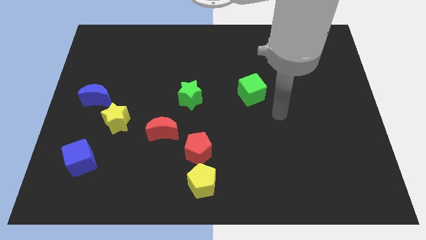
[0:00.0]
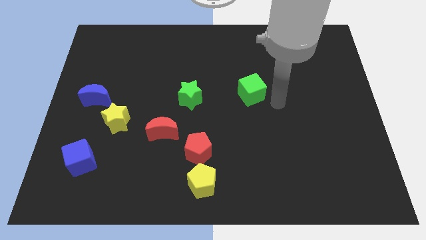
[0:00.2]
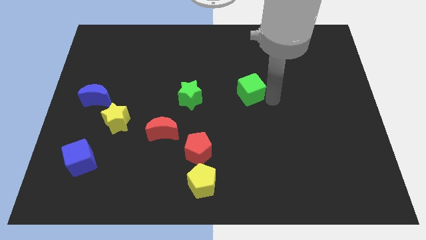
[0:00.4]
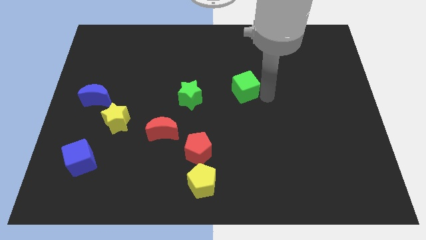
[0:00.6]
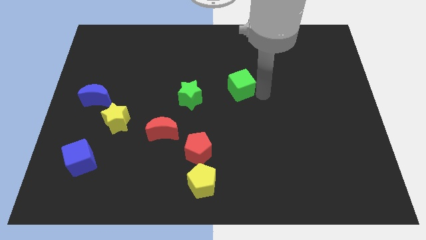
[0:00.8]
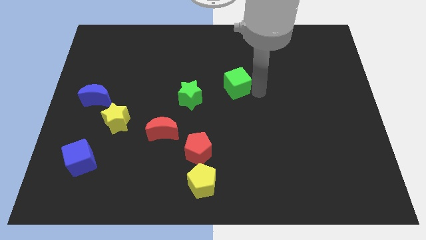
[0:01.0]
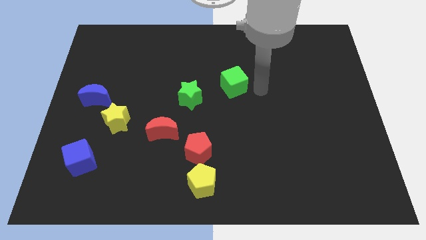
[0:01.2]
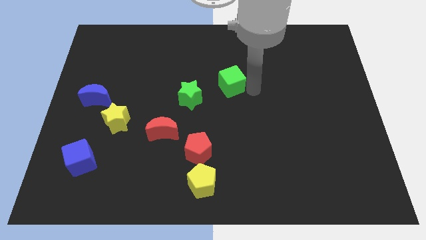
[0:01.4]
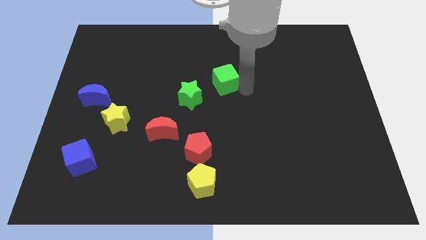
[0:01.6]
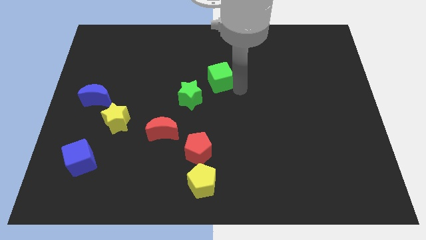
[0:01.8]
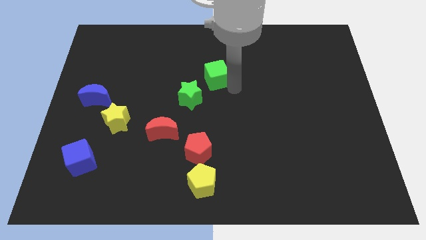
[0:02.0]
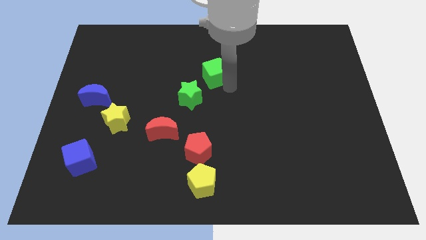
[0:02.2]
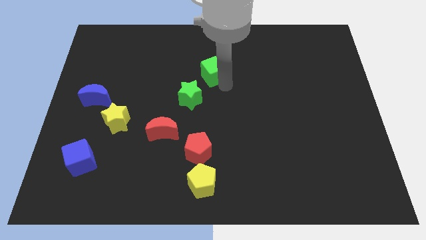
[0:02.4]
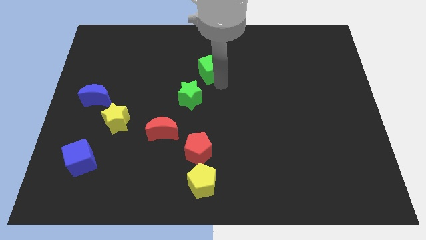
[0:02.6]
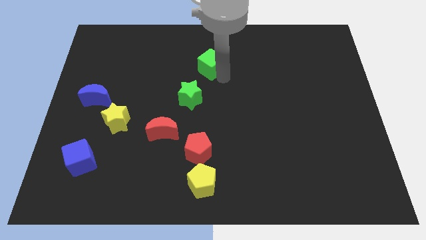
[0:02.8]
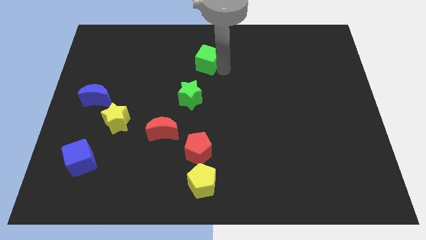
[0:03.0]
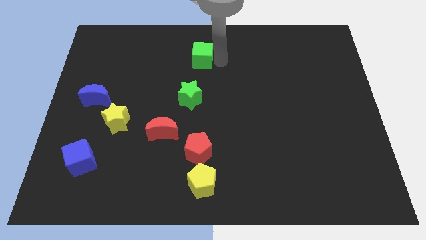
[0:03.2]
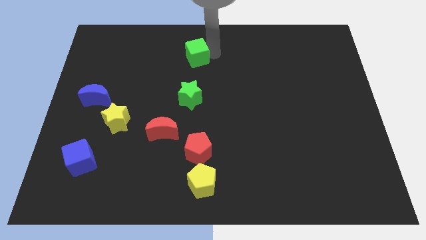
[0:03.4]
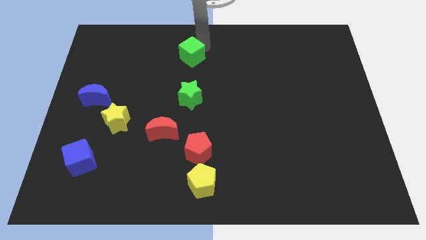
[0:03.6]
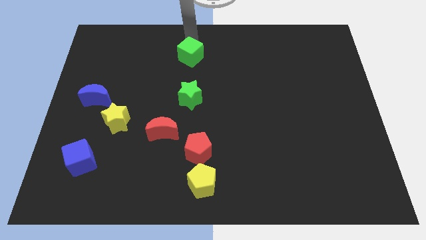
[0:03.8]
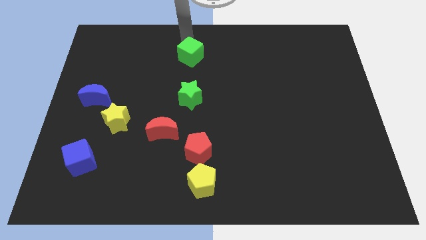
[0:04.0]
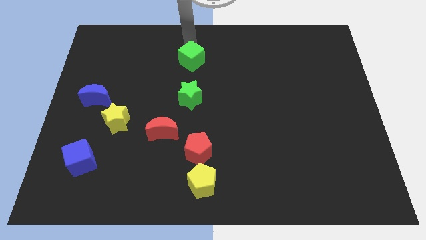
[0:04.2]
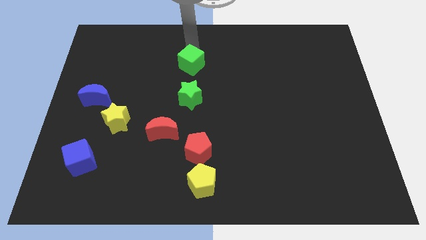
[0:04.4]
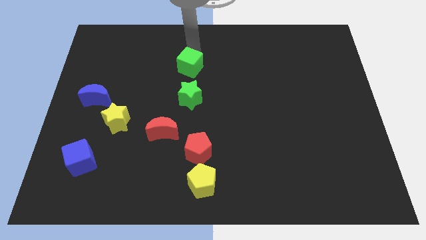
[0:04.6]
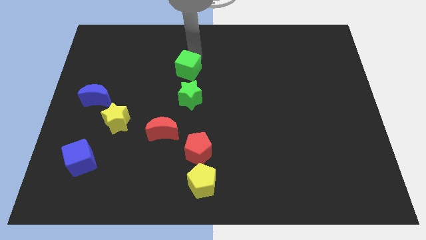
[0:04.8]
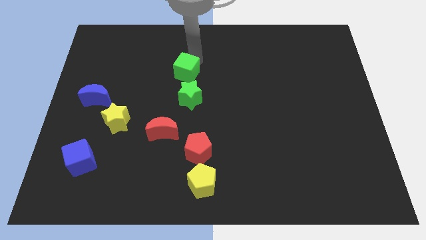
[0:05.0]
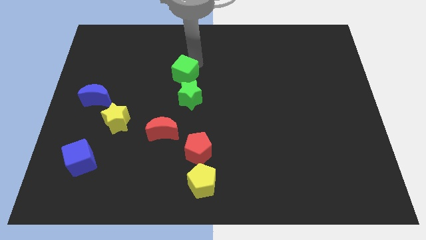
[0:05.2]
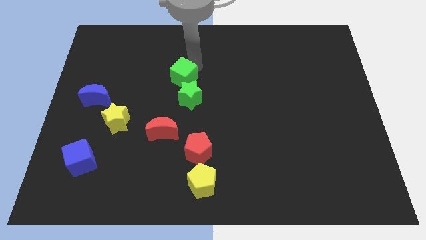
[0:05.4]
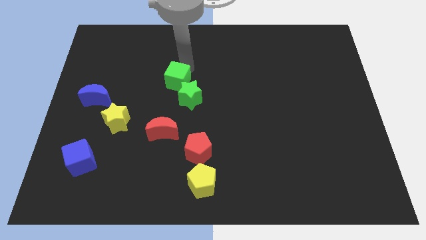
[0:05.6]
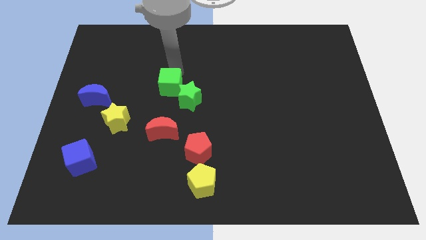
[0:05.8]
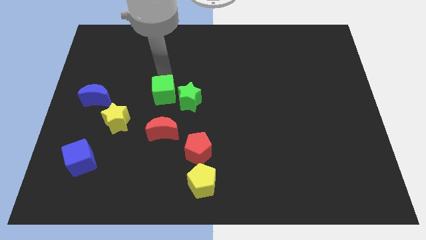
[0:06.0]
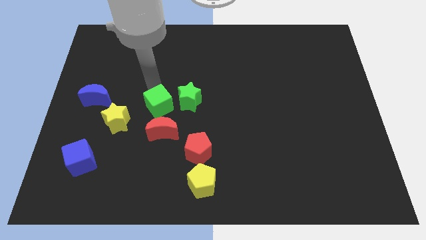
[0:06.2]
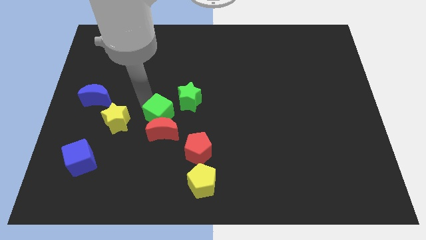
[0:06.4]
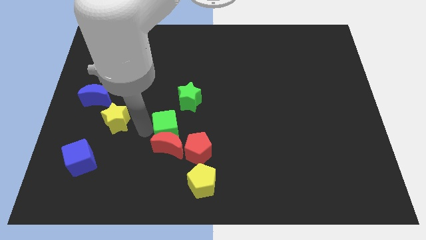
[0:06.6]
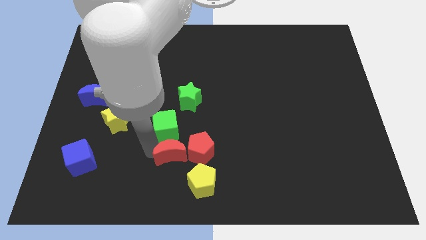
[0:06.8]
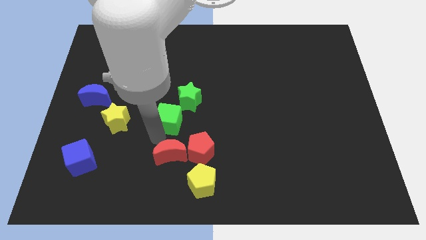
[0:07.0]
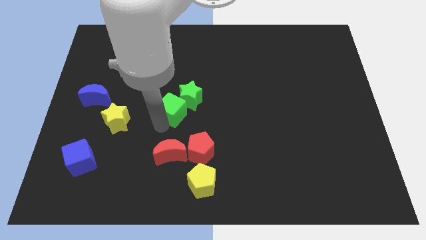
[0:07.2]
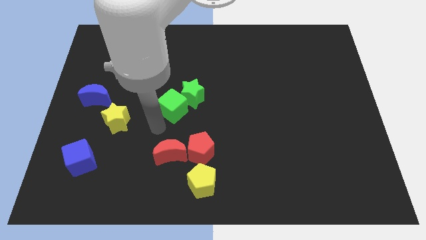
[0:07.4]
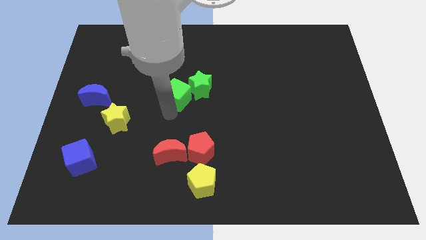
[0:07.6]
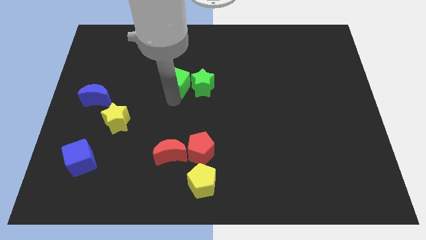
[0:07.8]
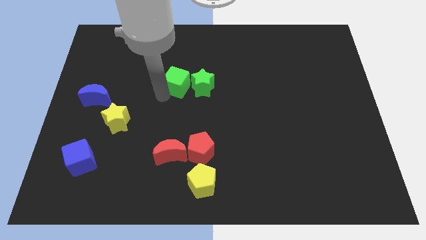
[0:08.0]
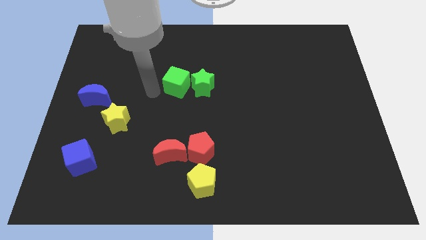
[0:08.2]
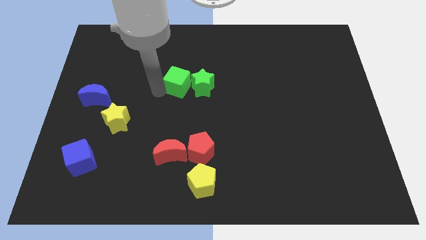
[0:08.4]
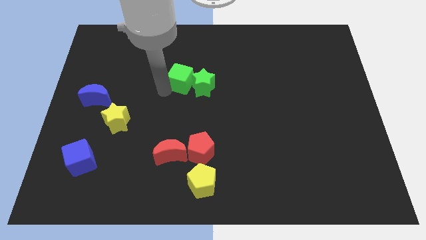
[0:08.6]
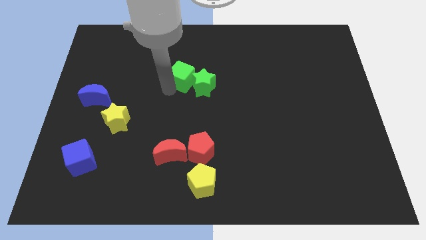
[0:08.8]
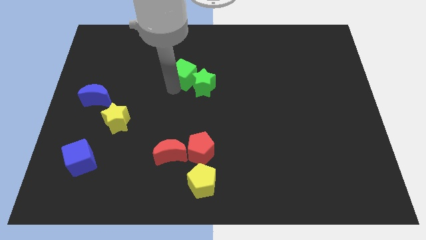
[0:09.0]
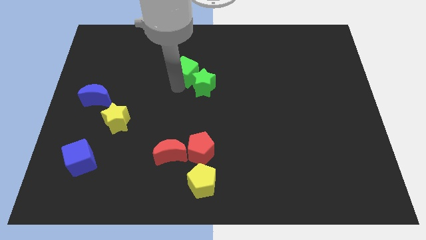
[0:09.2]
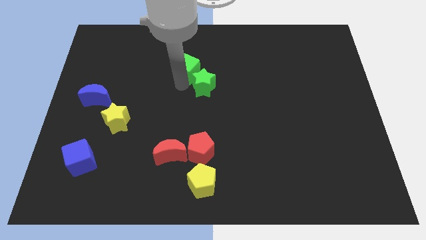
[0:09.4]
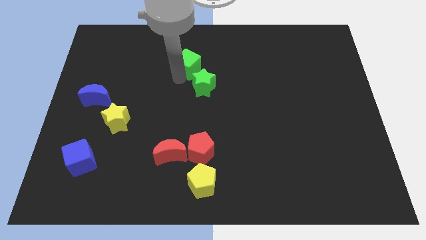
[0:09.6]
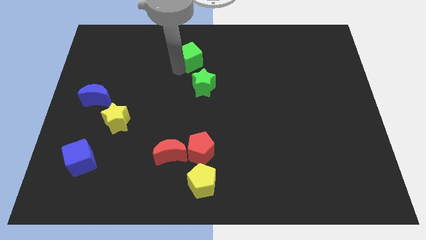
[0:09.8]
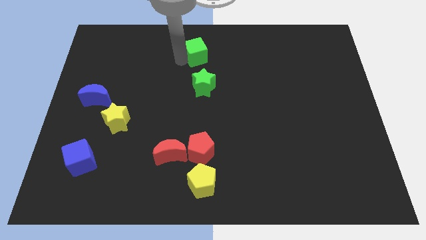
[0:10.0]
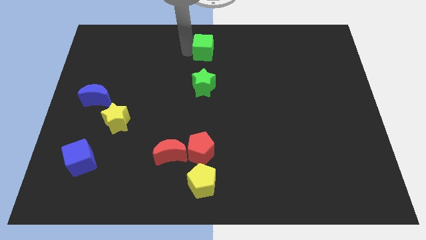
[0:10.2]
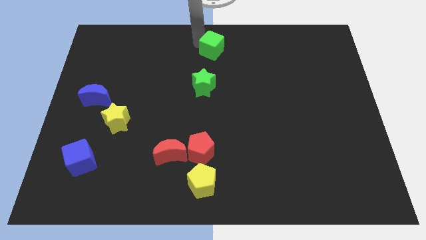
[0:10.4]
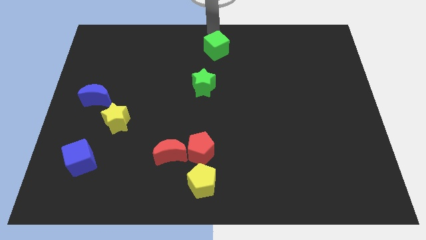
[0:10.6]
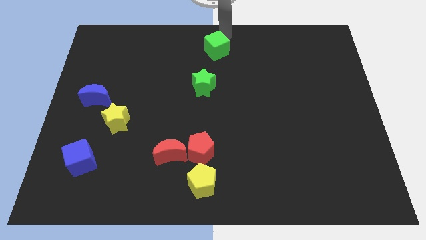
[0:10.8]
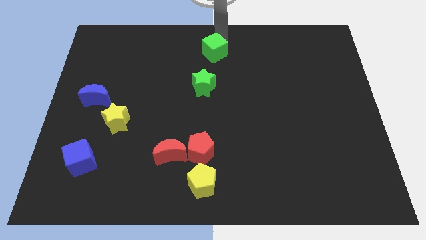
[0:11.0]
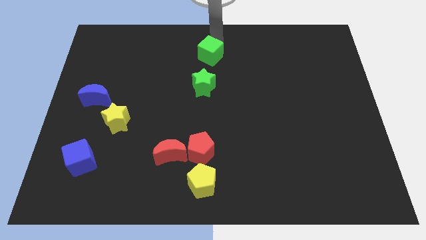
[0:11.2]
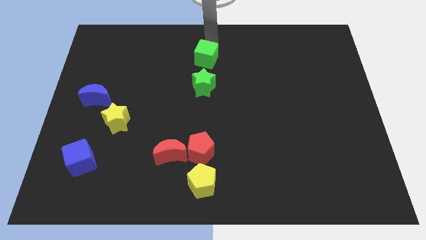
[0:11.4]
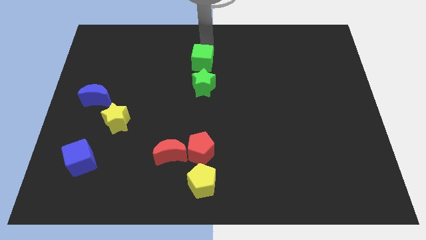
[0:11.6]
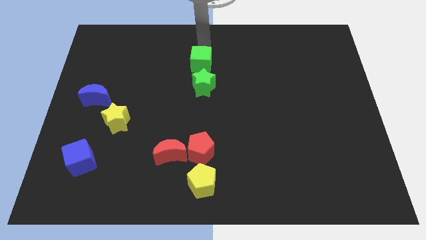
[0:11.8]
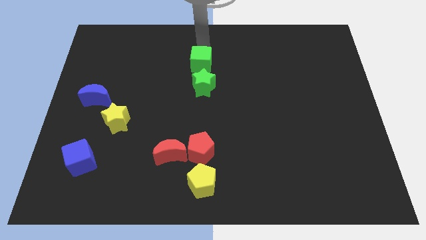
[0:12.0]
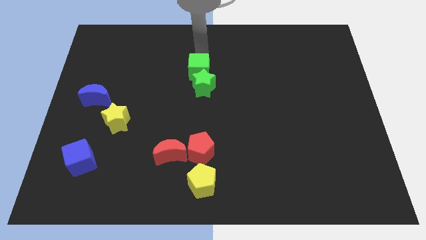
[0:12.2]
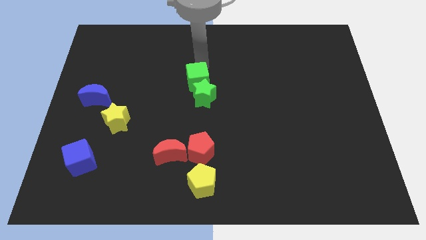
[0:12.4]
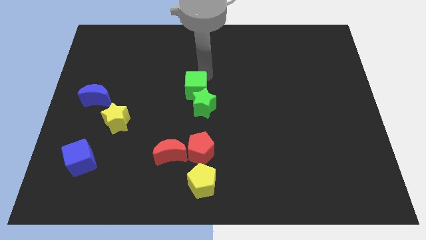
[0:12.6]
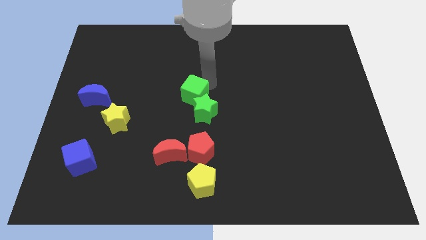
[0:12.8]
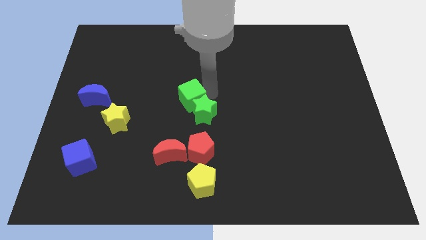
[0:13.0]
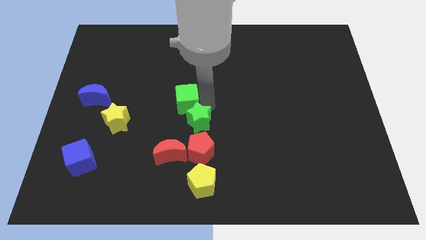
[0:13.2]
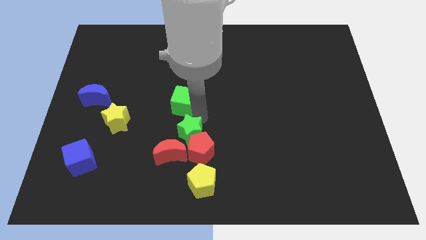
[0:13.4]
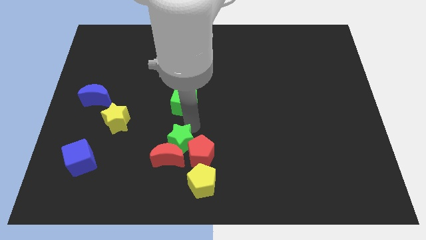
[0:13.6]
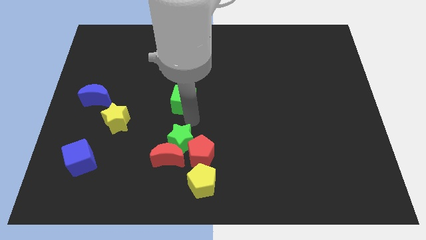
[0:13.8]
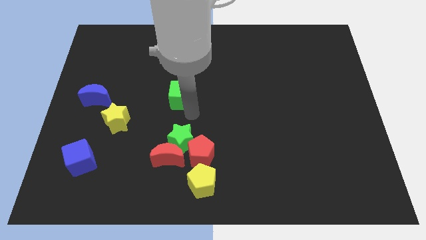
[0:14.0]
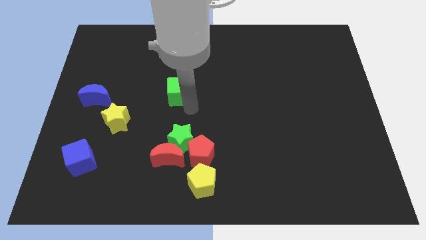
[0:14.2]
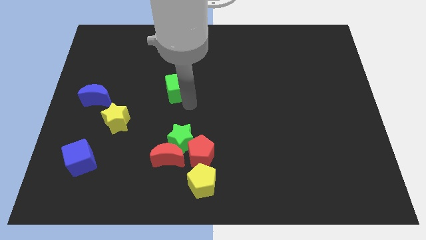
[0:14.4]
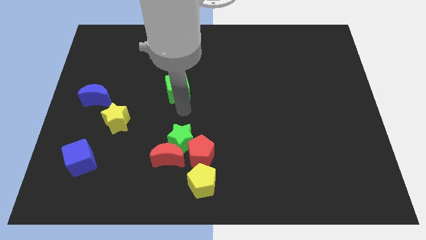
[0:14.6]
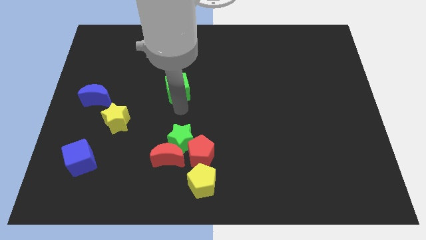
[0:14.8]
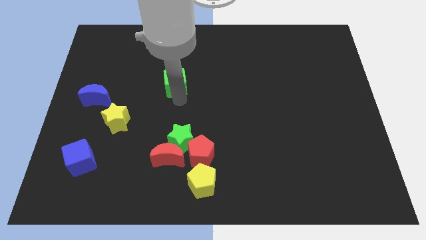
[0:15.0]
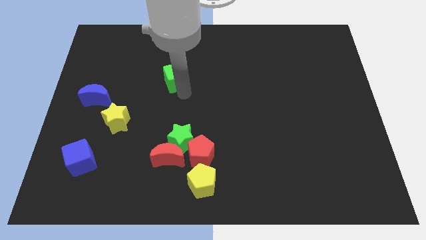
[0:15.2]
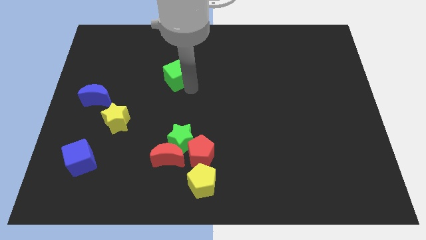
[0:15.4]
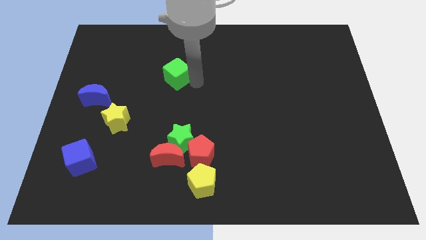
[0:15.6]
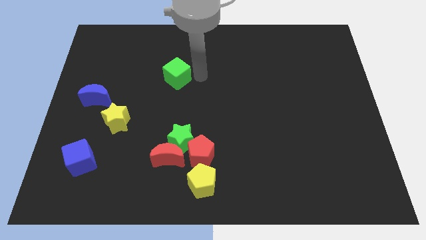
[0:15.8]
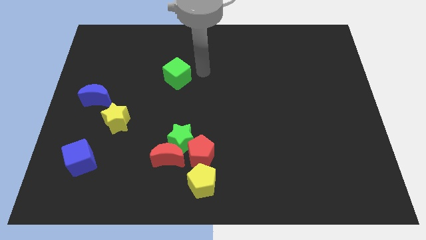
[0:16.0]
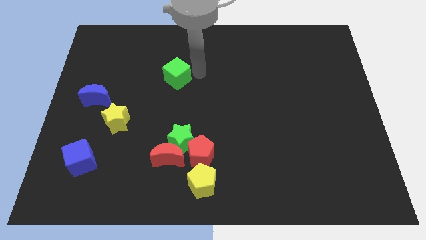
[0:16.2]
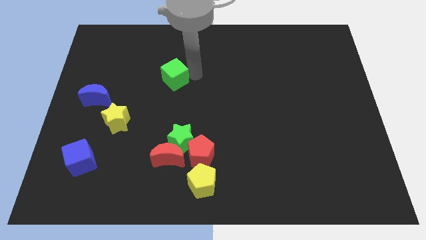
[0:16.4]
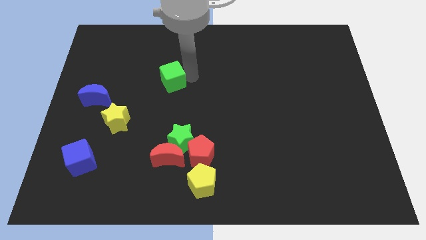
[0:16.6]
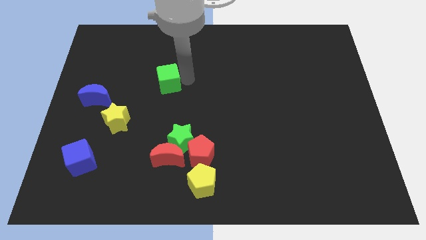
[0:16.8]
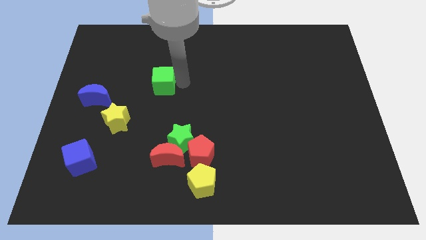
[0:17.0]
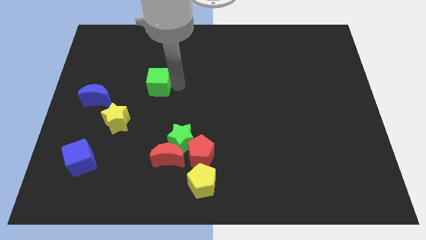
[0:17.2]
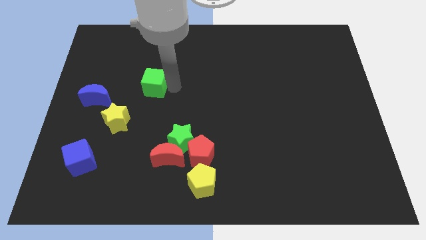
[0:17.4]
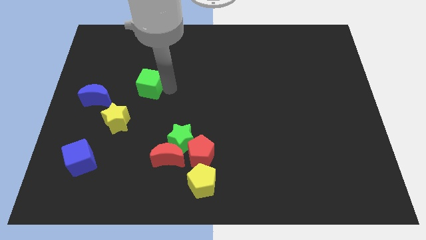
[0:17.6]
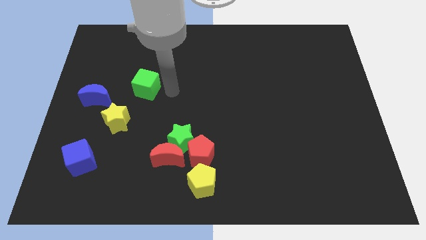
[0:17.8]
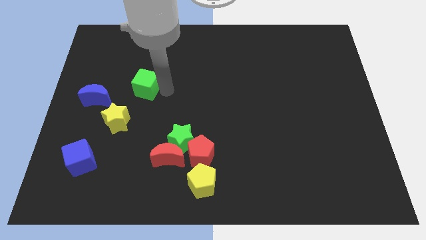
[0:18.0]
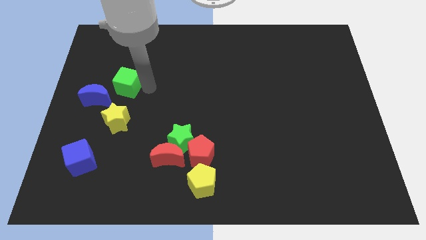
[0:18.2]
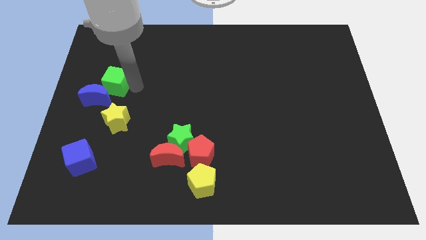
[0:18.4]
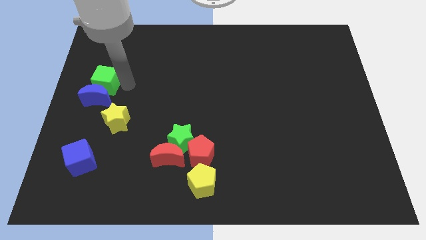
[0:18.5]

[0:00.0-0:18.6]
move the green cube to the center left
